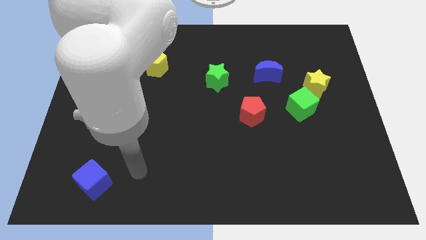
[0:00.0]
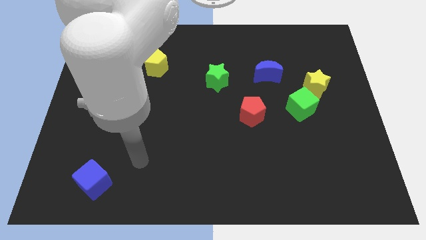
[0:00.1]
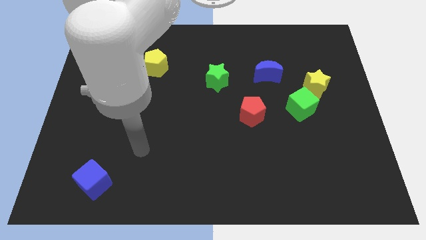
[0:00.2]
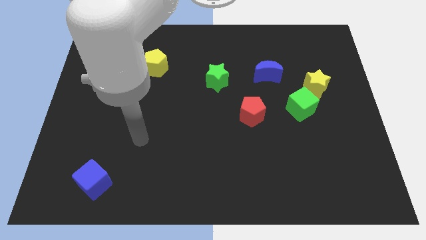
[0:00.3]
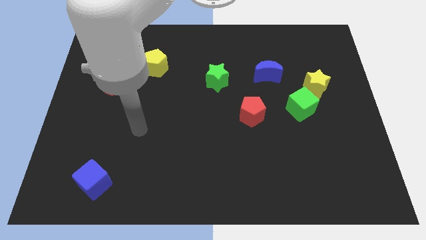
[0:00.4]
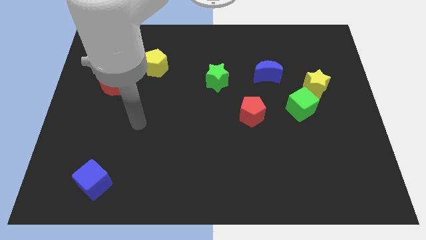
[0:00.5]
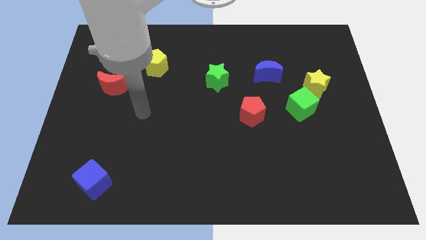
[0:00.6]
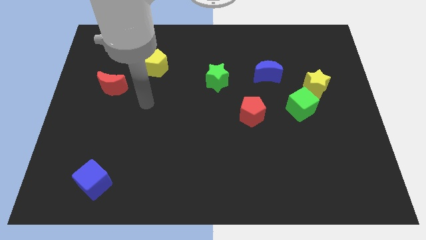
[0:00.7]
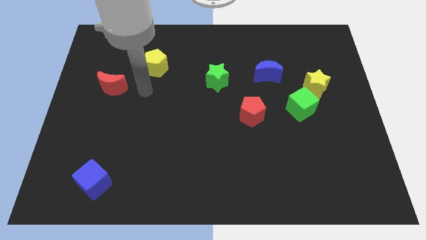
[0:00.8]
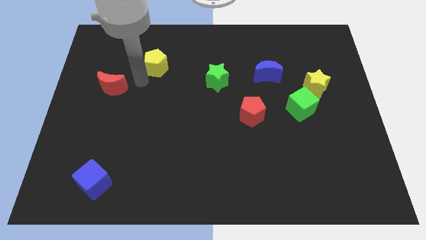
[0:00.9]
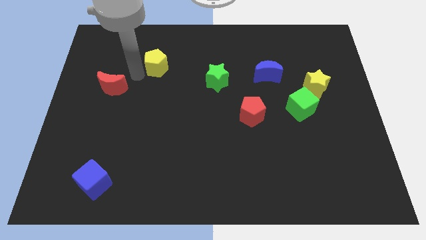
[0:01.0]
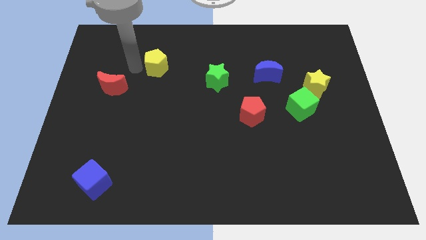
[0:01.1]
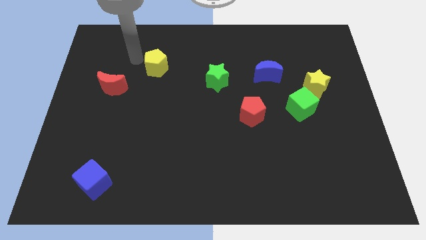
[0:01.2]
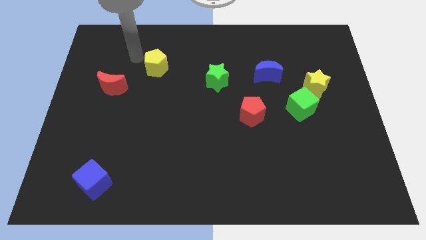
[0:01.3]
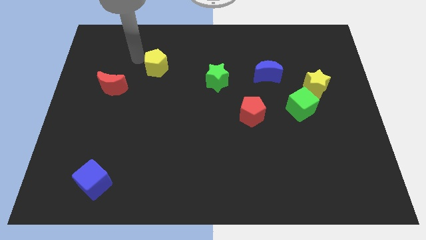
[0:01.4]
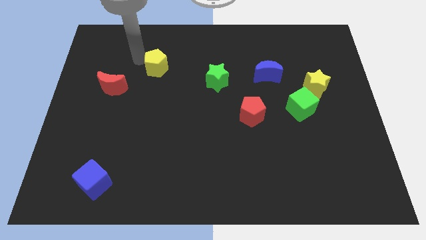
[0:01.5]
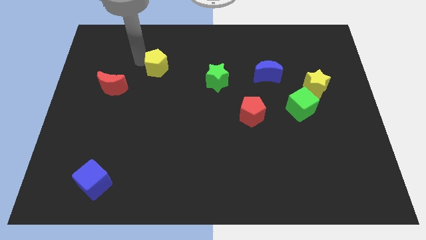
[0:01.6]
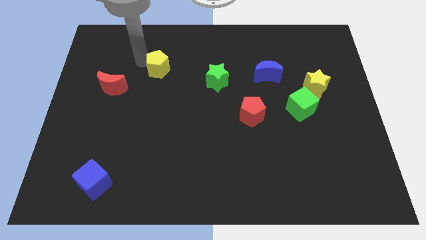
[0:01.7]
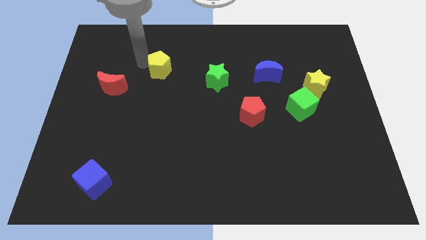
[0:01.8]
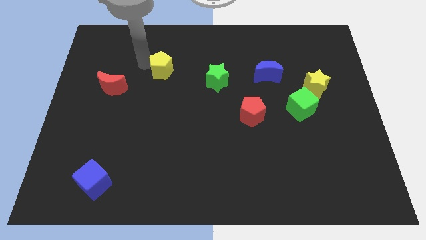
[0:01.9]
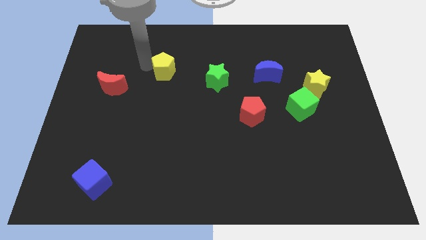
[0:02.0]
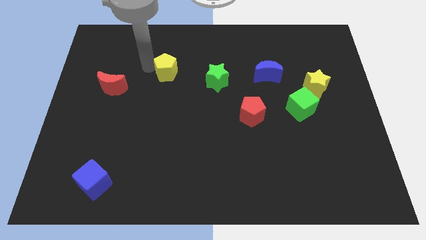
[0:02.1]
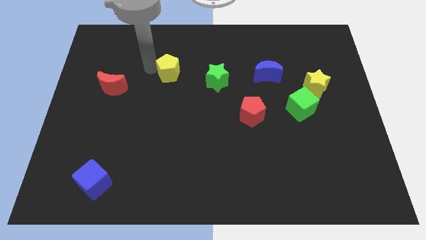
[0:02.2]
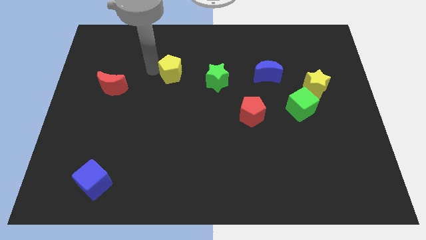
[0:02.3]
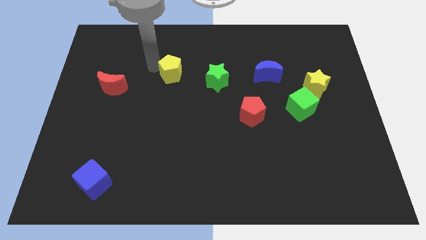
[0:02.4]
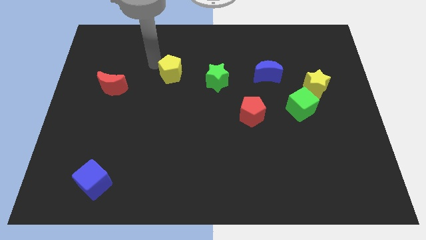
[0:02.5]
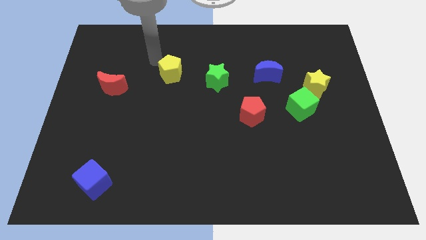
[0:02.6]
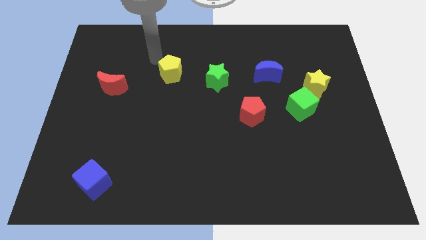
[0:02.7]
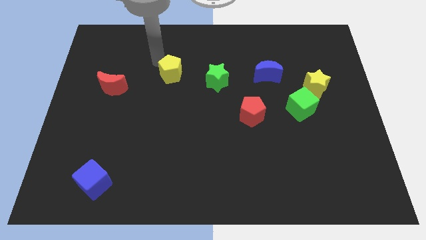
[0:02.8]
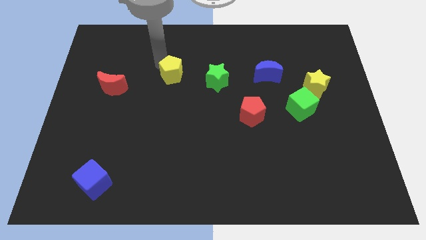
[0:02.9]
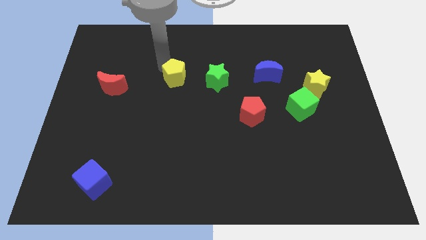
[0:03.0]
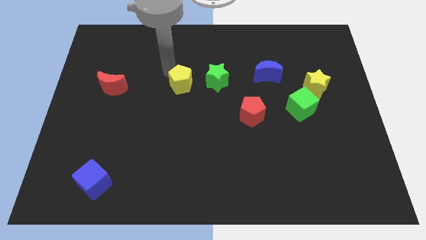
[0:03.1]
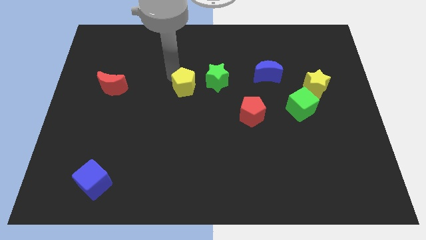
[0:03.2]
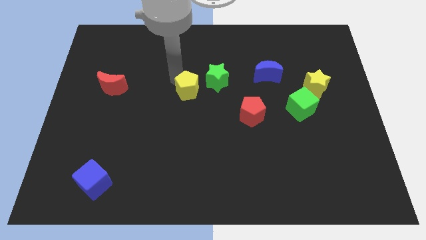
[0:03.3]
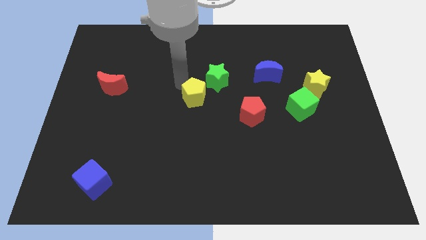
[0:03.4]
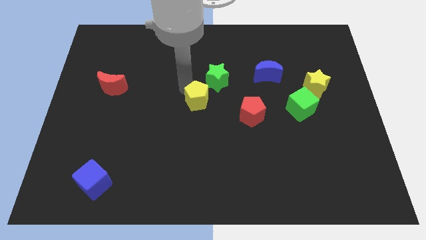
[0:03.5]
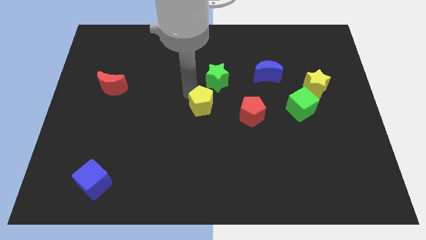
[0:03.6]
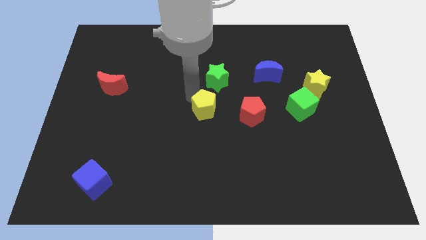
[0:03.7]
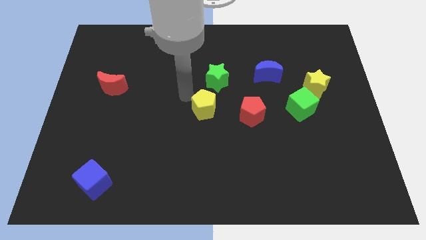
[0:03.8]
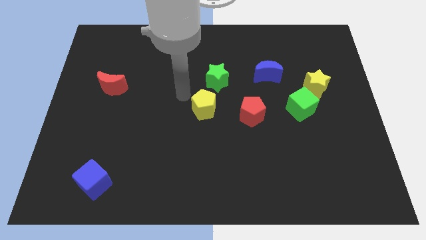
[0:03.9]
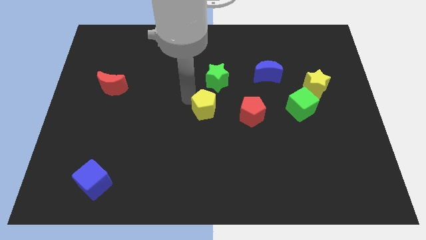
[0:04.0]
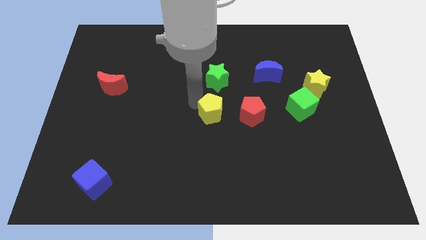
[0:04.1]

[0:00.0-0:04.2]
move the yellow pentagon down and right

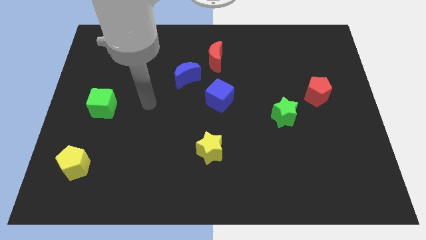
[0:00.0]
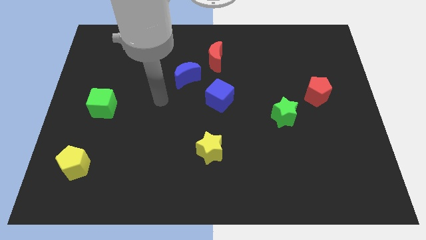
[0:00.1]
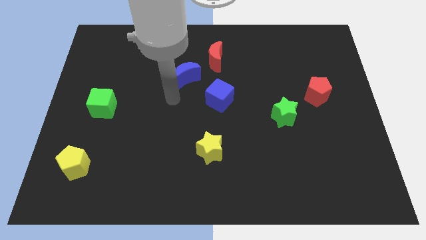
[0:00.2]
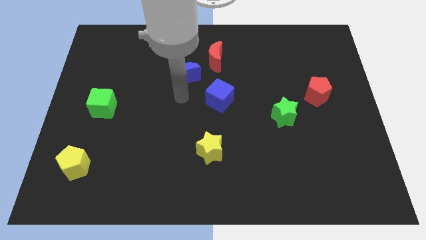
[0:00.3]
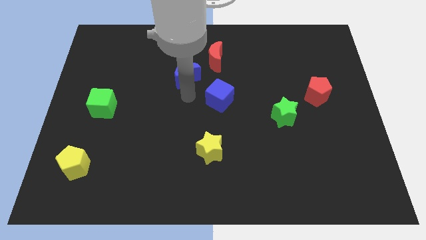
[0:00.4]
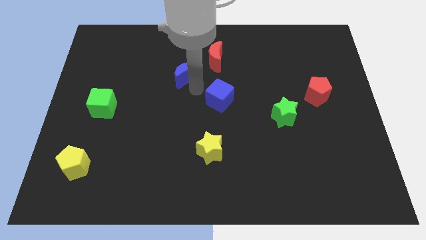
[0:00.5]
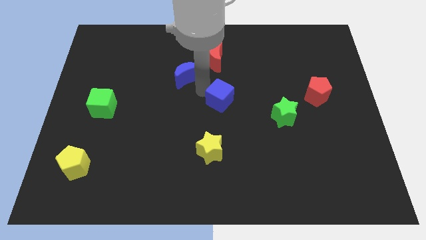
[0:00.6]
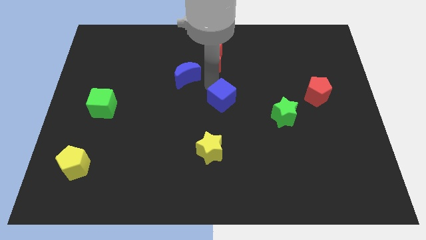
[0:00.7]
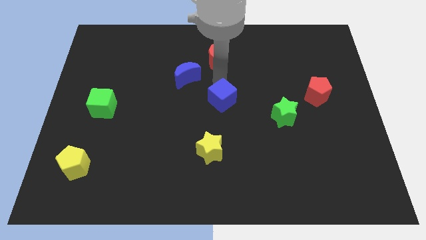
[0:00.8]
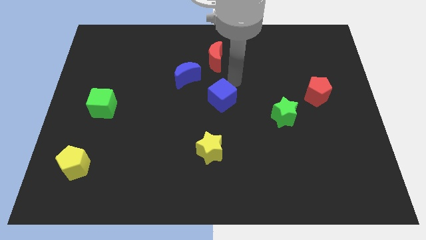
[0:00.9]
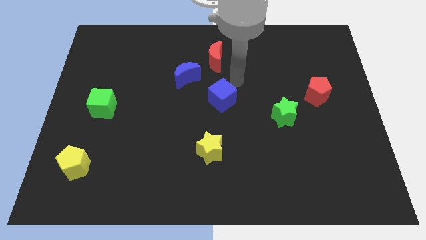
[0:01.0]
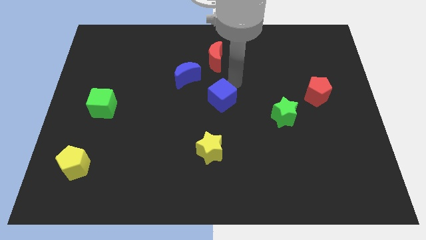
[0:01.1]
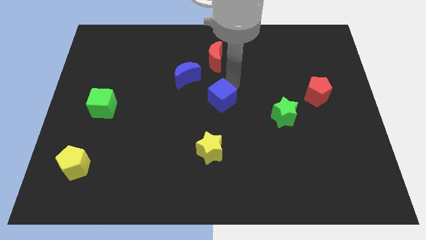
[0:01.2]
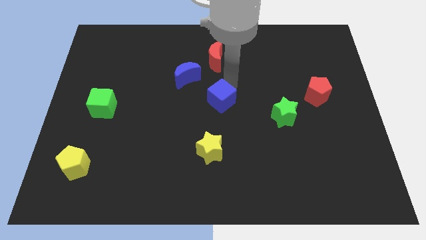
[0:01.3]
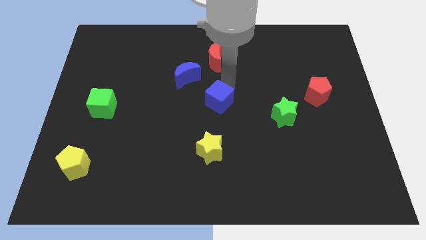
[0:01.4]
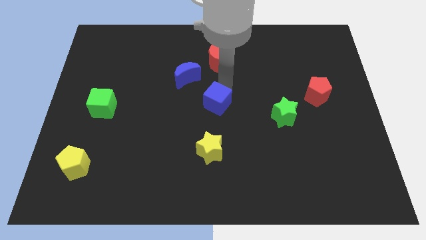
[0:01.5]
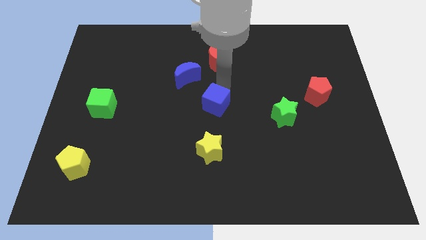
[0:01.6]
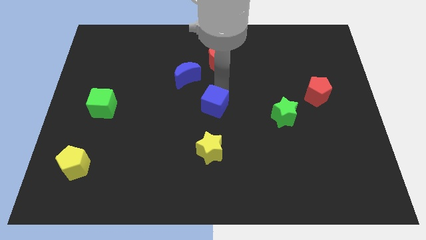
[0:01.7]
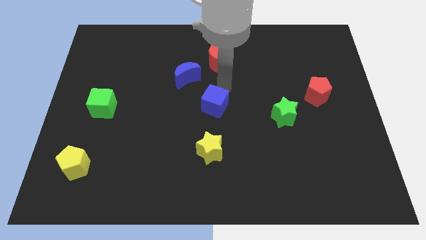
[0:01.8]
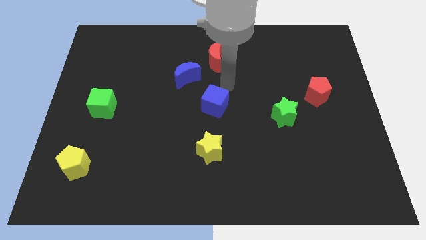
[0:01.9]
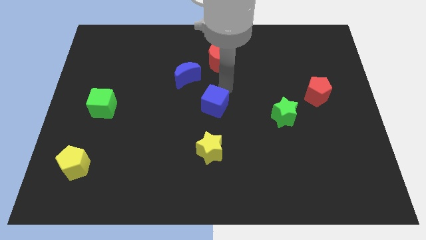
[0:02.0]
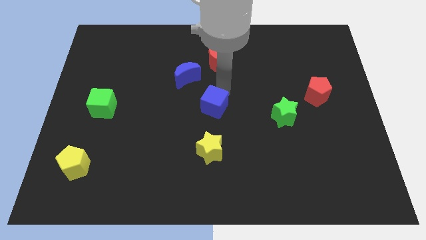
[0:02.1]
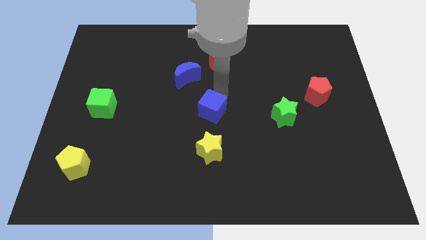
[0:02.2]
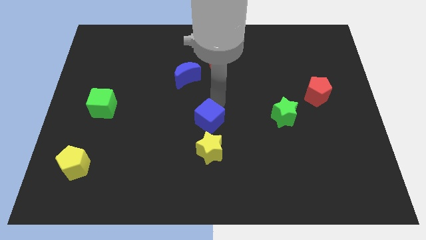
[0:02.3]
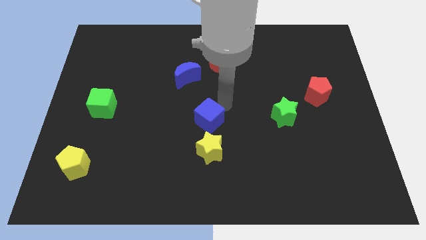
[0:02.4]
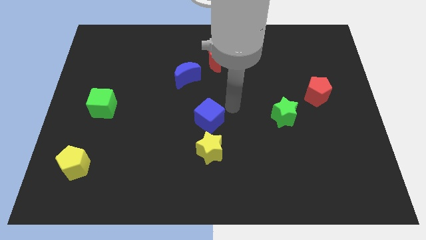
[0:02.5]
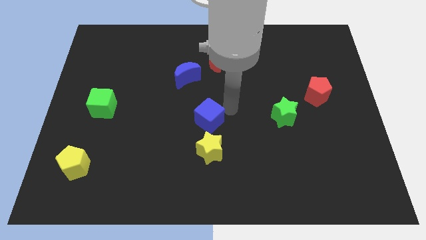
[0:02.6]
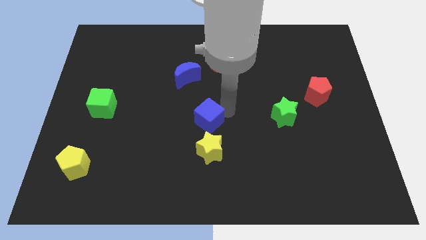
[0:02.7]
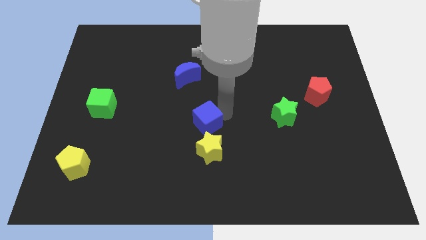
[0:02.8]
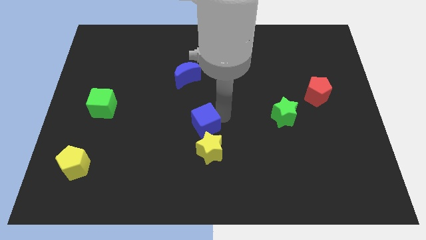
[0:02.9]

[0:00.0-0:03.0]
slightly move the blue cube down and then left

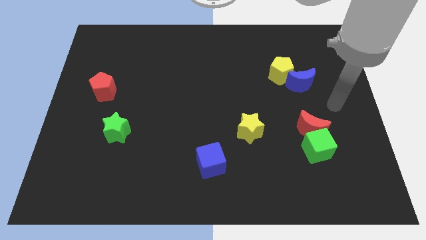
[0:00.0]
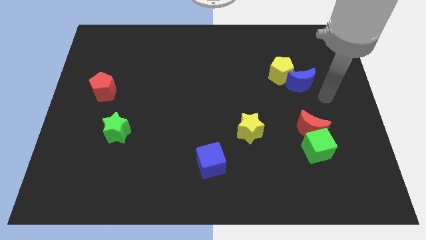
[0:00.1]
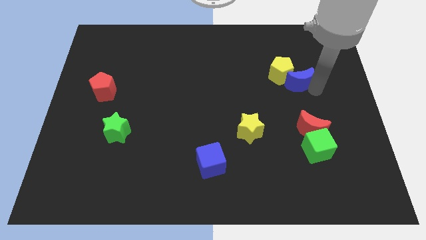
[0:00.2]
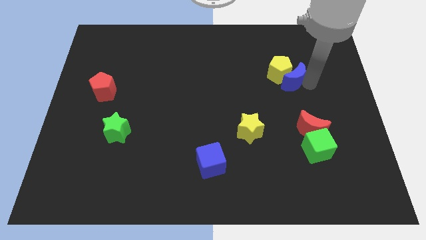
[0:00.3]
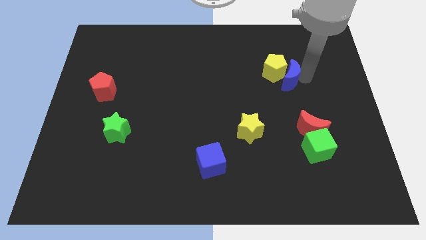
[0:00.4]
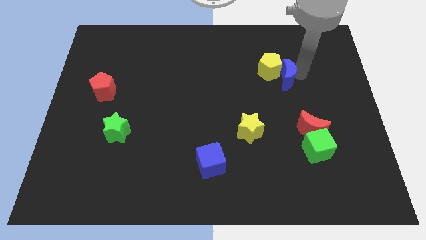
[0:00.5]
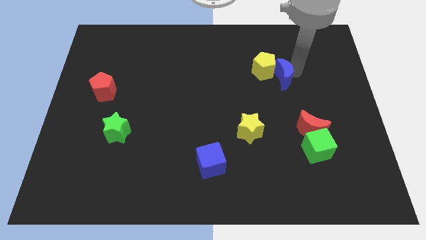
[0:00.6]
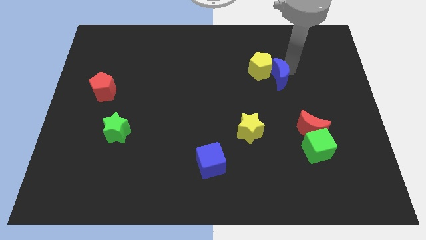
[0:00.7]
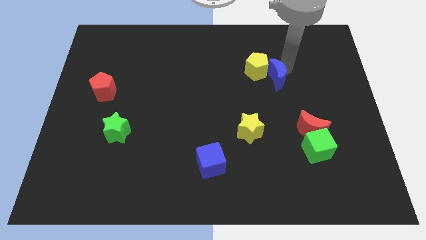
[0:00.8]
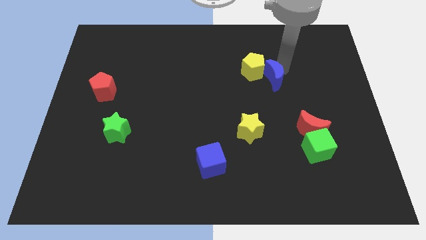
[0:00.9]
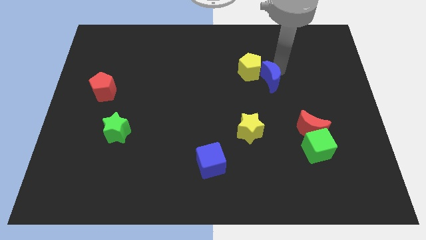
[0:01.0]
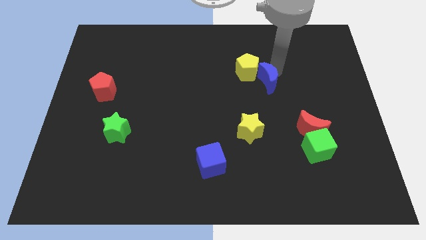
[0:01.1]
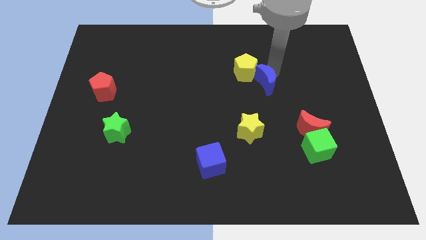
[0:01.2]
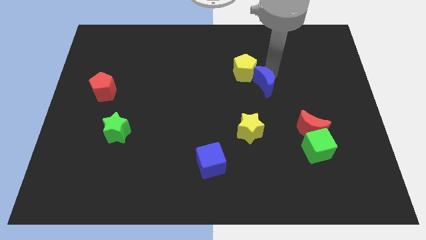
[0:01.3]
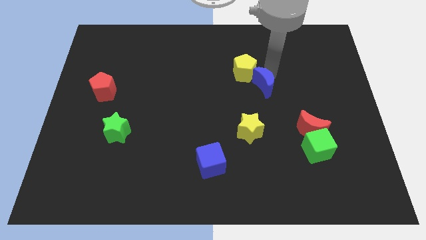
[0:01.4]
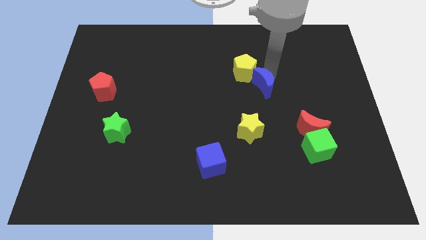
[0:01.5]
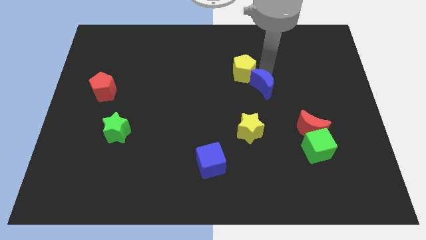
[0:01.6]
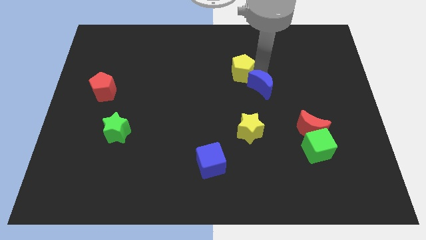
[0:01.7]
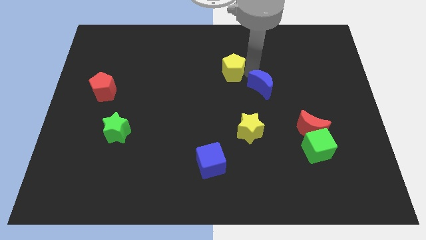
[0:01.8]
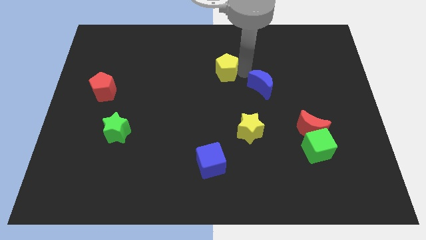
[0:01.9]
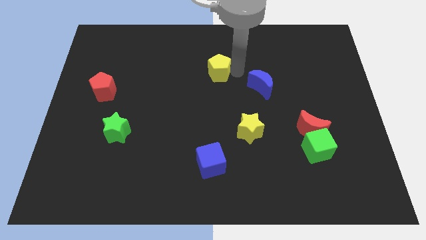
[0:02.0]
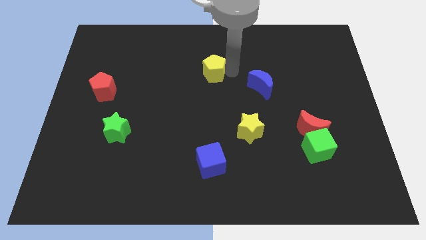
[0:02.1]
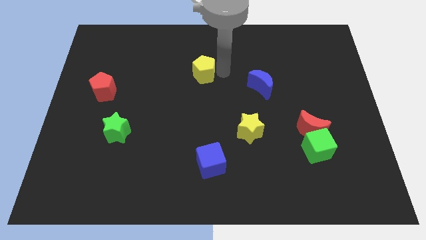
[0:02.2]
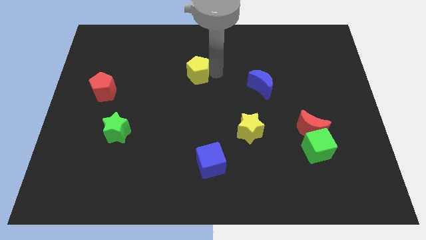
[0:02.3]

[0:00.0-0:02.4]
push the yellow pentagon to the left
